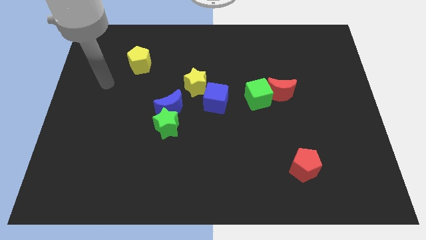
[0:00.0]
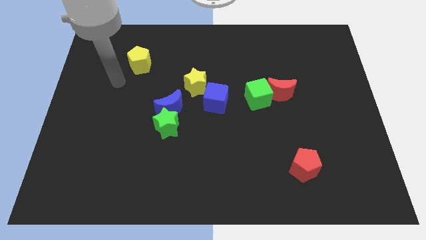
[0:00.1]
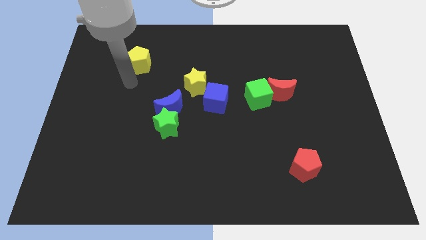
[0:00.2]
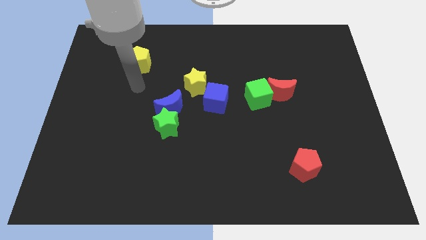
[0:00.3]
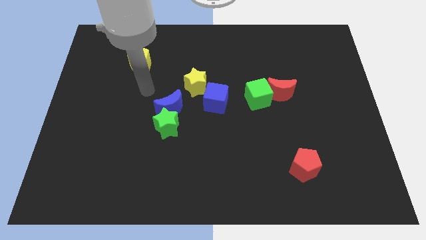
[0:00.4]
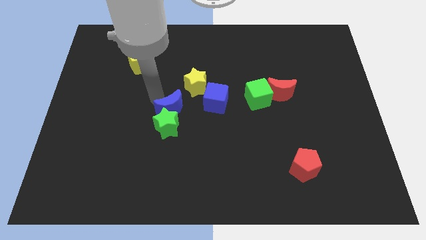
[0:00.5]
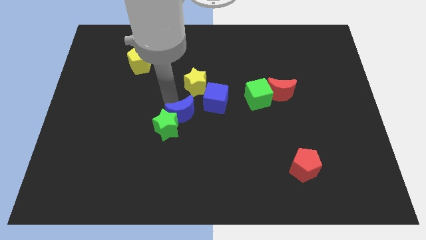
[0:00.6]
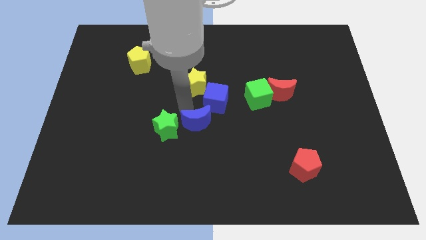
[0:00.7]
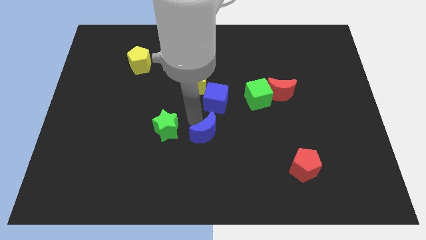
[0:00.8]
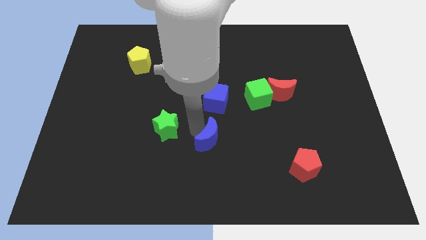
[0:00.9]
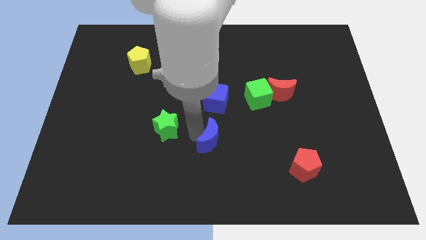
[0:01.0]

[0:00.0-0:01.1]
move the green star away from the blue moon

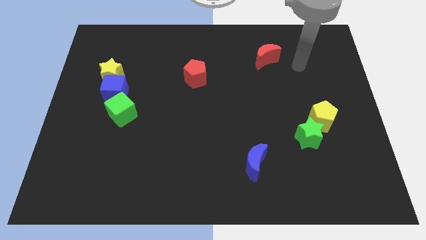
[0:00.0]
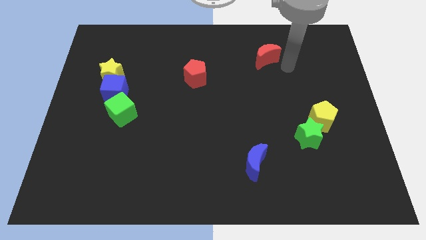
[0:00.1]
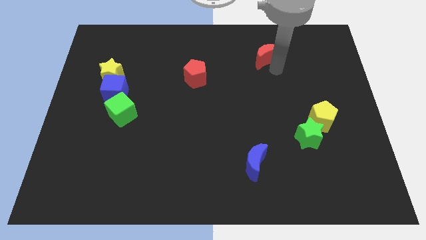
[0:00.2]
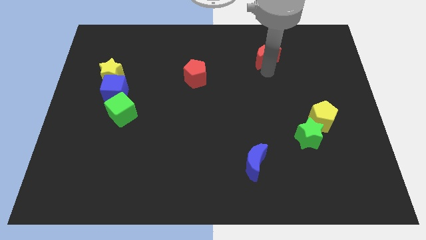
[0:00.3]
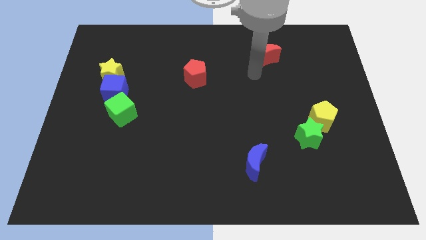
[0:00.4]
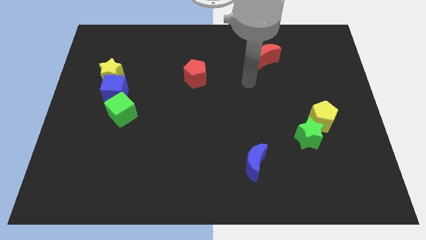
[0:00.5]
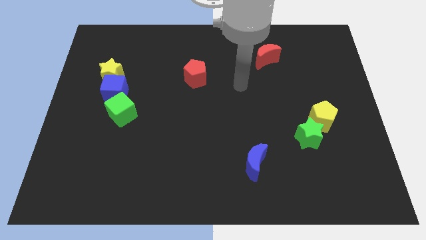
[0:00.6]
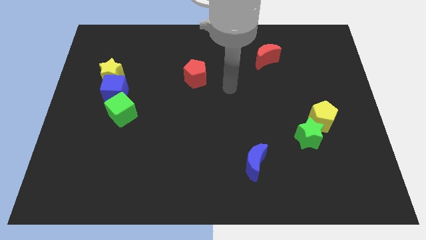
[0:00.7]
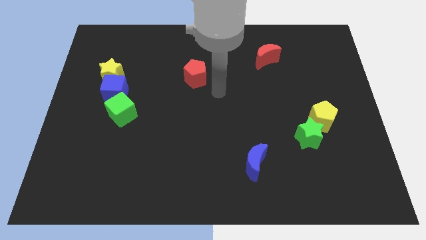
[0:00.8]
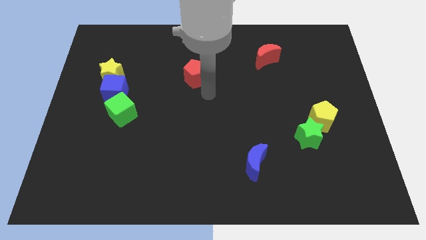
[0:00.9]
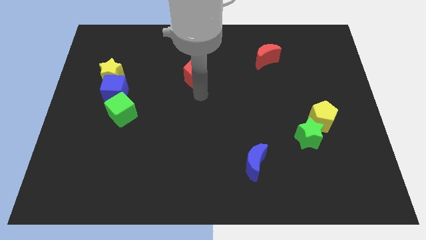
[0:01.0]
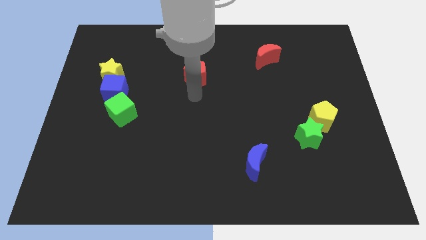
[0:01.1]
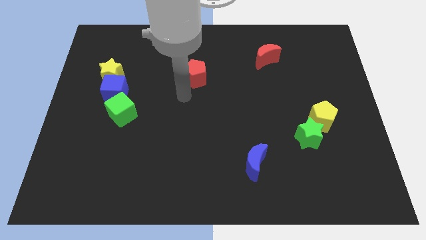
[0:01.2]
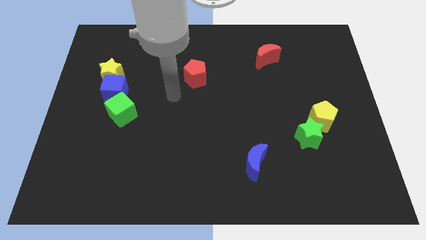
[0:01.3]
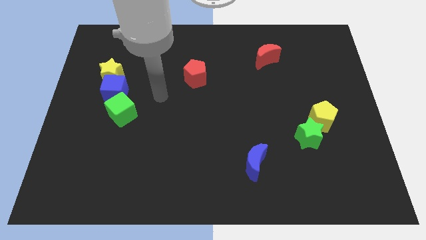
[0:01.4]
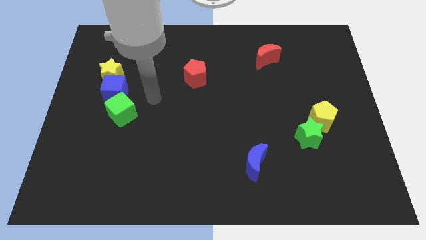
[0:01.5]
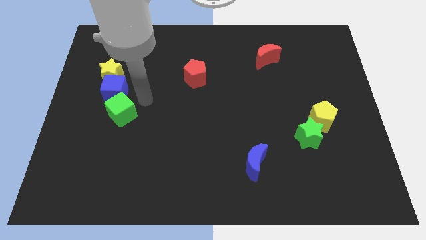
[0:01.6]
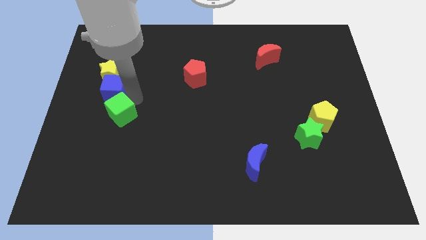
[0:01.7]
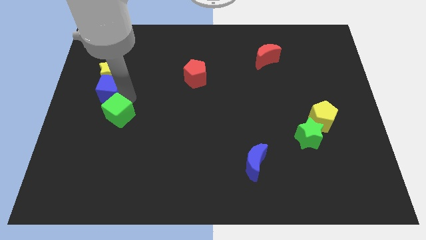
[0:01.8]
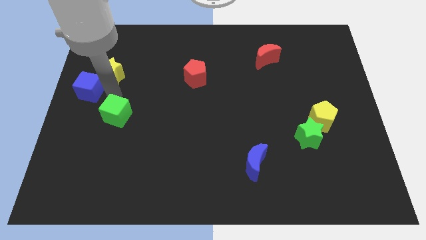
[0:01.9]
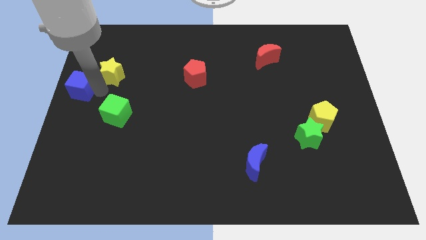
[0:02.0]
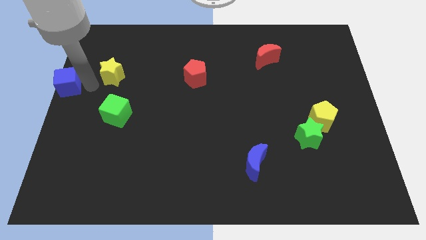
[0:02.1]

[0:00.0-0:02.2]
pull the yellow star apart from the blue cube

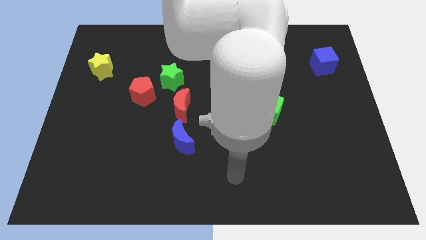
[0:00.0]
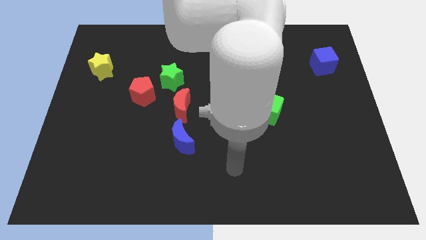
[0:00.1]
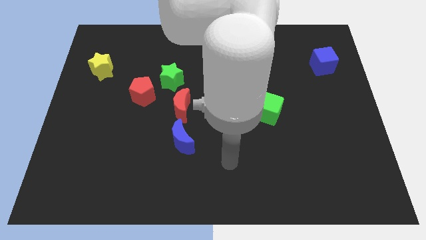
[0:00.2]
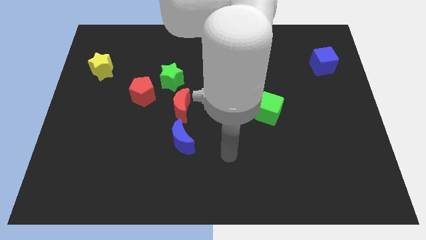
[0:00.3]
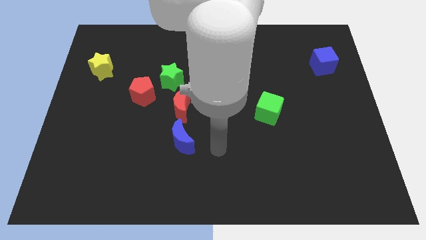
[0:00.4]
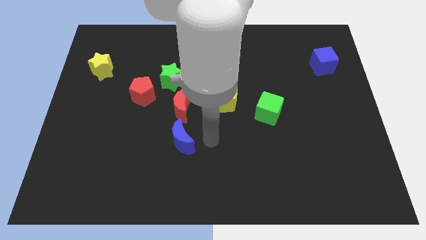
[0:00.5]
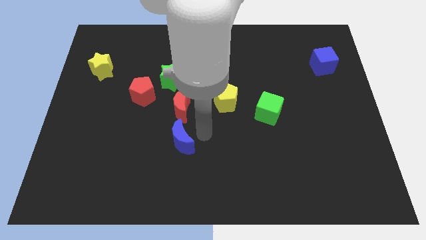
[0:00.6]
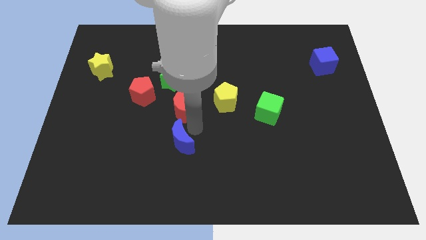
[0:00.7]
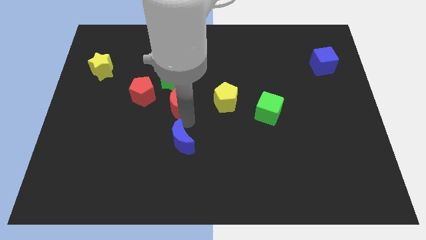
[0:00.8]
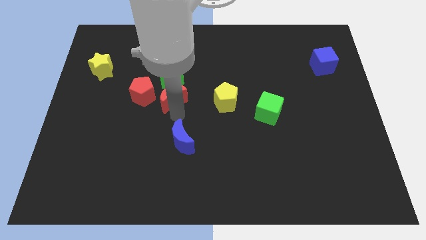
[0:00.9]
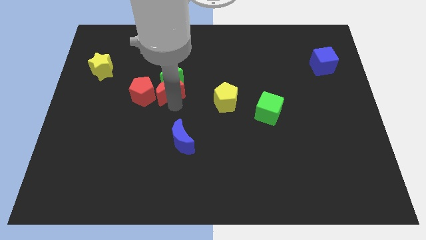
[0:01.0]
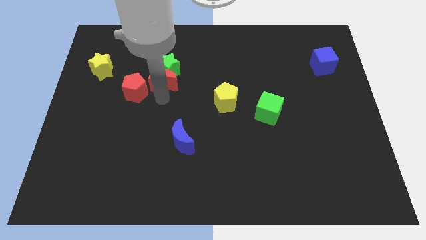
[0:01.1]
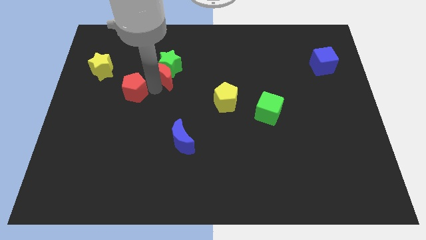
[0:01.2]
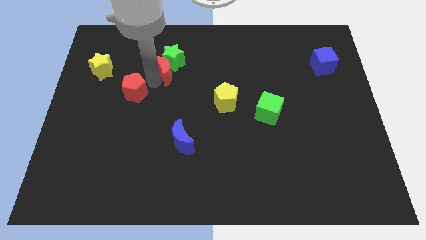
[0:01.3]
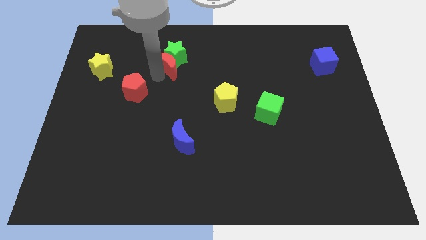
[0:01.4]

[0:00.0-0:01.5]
move the green star away from the red pentagon and red moon

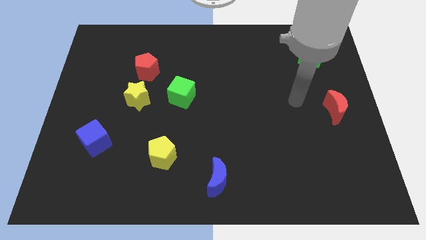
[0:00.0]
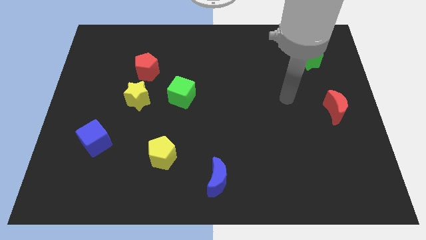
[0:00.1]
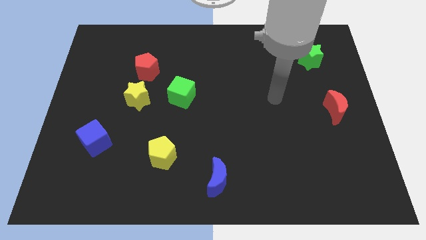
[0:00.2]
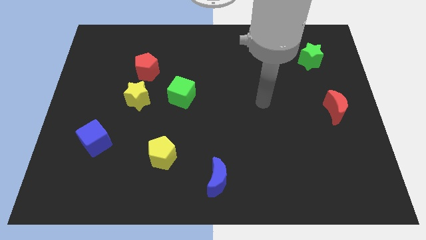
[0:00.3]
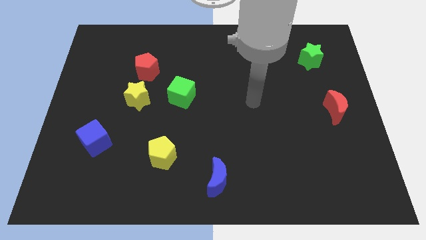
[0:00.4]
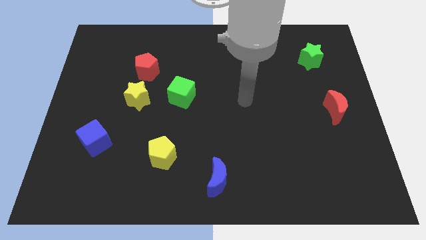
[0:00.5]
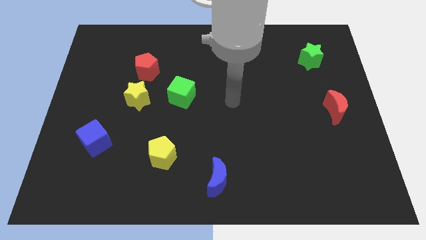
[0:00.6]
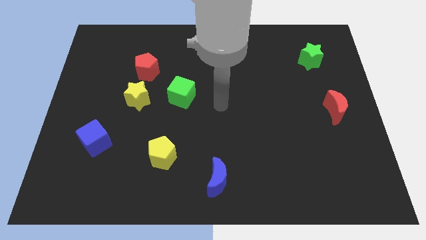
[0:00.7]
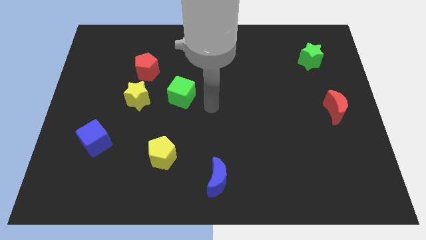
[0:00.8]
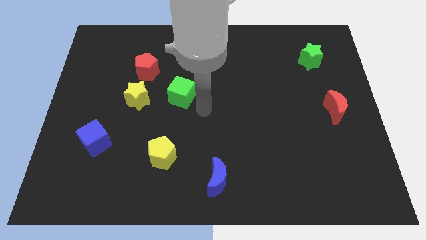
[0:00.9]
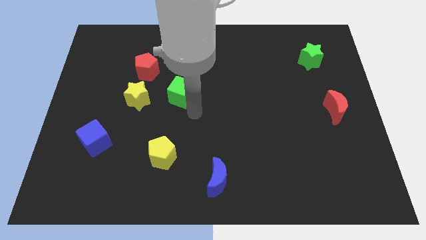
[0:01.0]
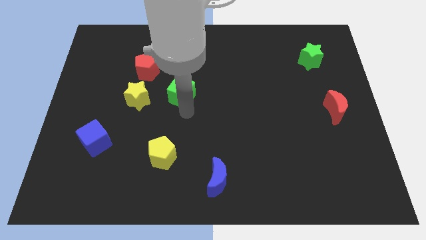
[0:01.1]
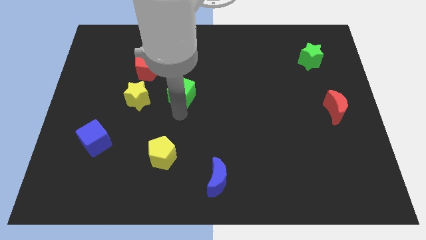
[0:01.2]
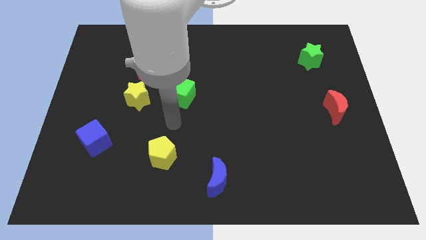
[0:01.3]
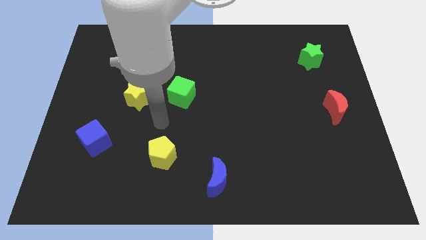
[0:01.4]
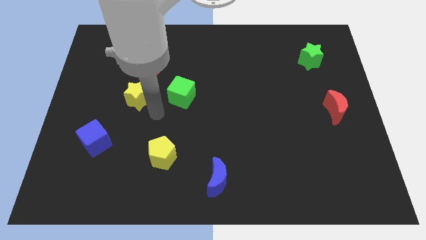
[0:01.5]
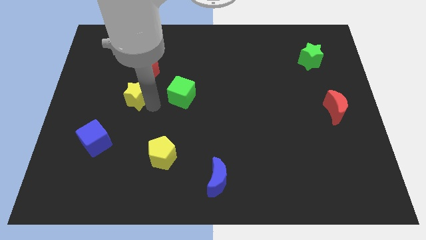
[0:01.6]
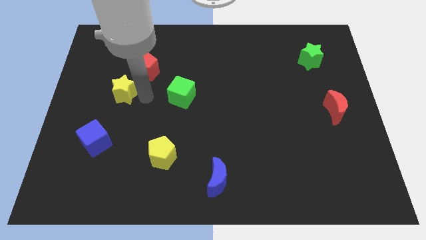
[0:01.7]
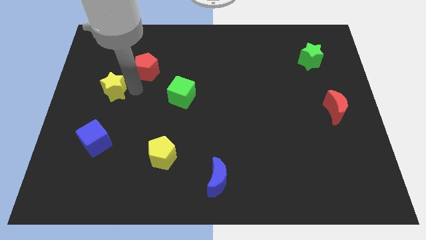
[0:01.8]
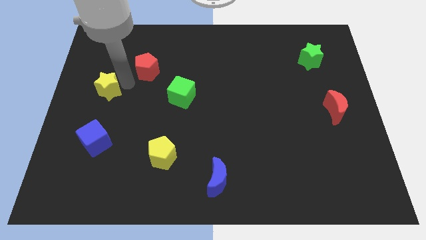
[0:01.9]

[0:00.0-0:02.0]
move the red pentagon away from the yellow star

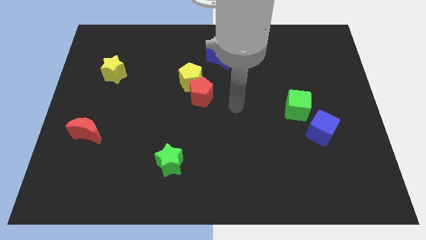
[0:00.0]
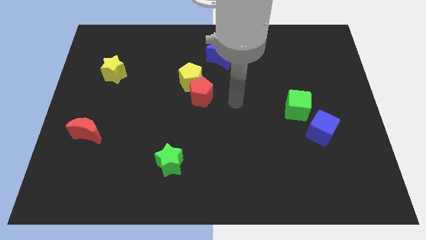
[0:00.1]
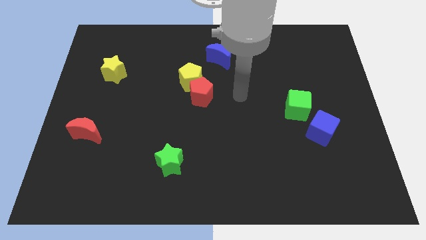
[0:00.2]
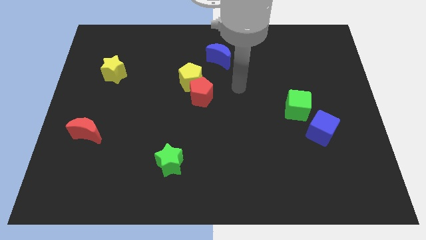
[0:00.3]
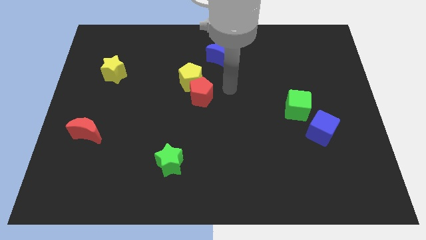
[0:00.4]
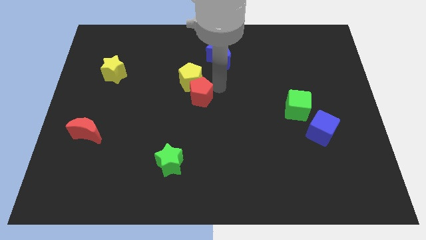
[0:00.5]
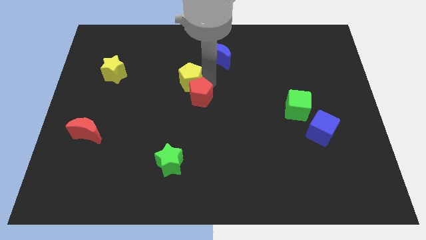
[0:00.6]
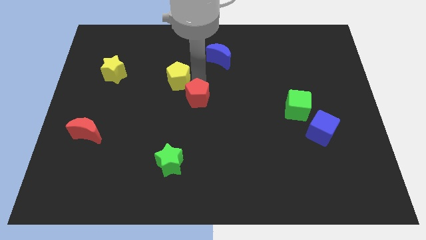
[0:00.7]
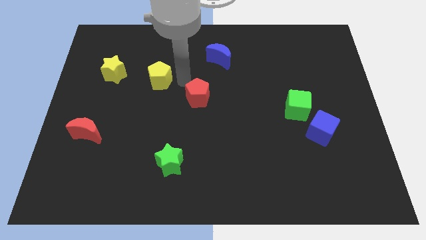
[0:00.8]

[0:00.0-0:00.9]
pull the red pentagon apart from the yellow pentagon

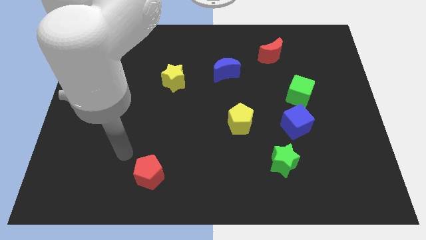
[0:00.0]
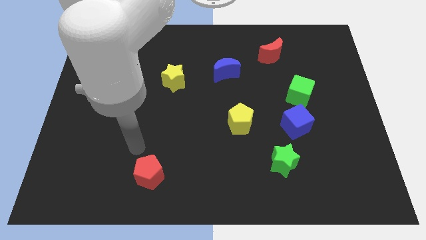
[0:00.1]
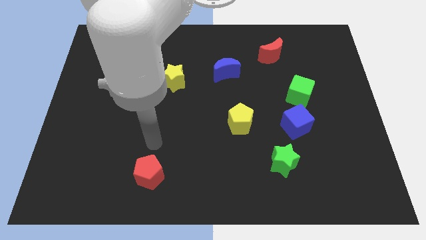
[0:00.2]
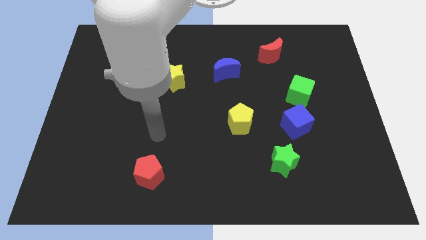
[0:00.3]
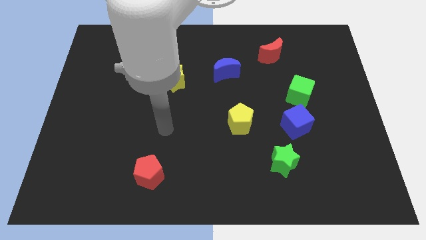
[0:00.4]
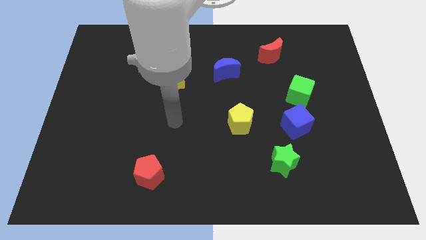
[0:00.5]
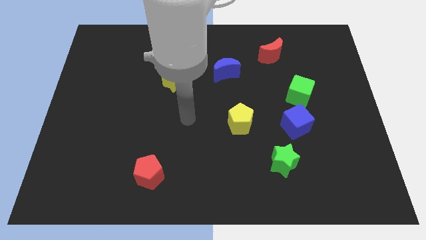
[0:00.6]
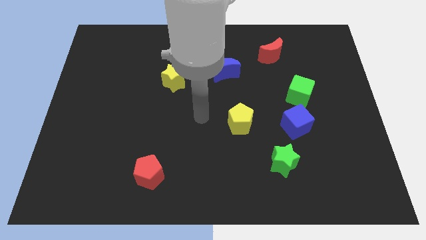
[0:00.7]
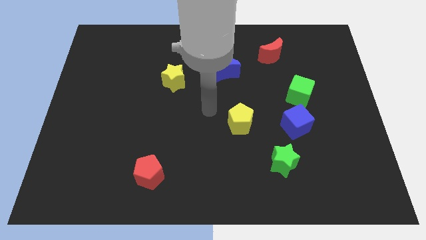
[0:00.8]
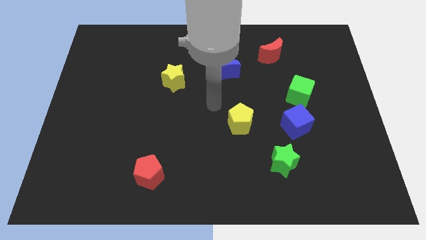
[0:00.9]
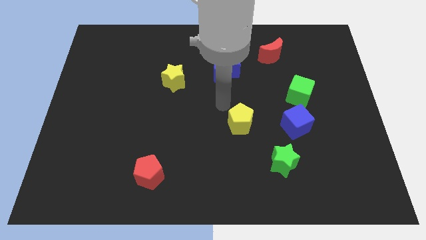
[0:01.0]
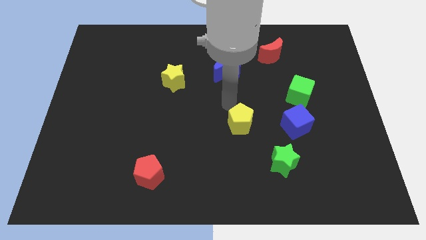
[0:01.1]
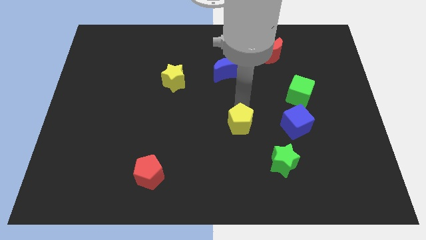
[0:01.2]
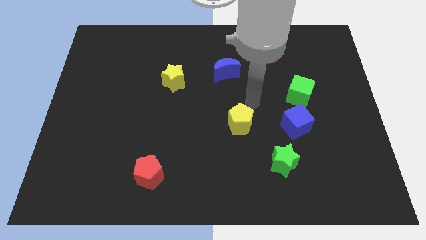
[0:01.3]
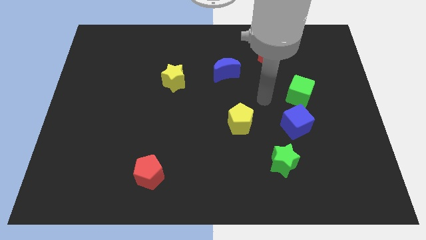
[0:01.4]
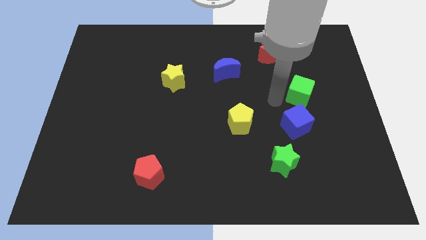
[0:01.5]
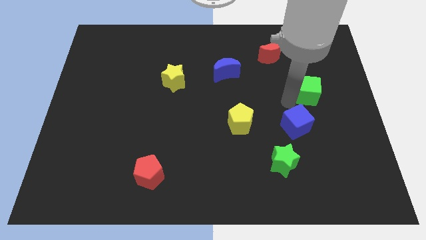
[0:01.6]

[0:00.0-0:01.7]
pull the blue cube apart from the green cube
